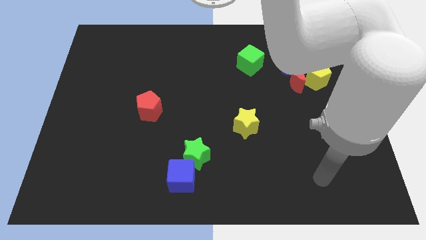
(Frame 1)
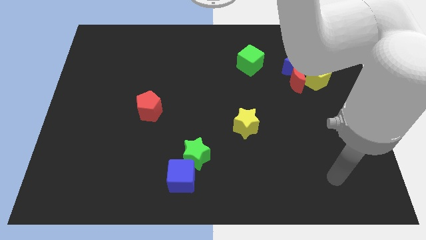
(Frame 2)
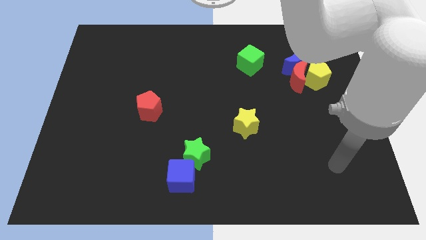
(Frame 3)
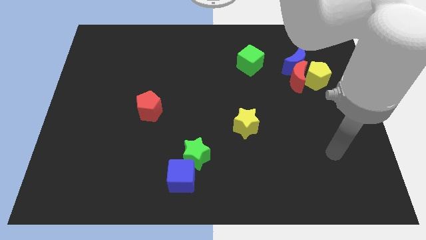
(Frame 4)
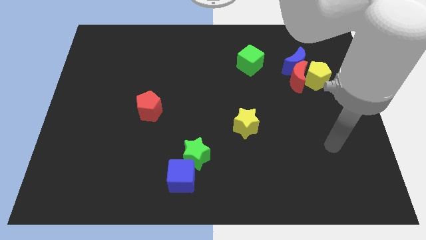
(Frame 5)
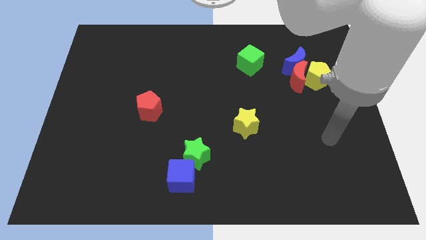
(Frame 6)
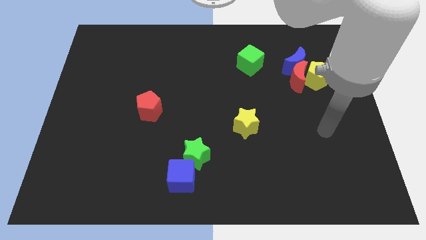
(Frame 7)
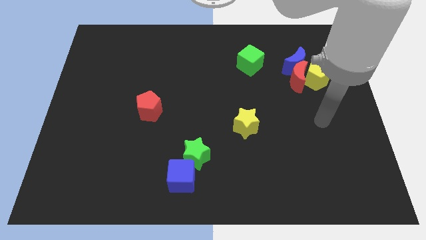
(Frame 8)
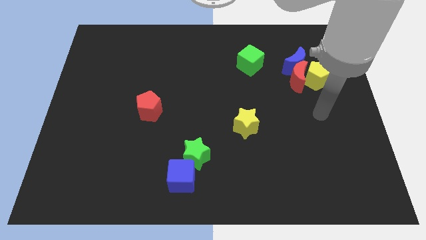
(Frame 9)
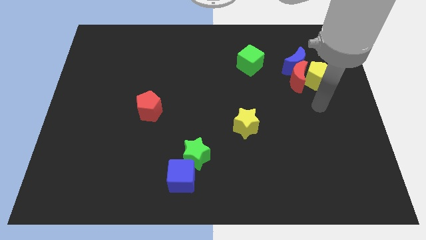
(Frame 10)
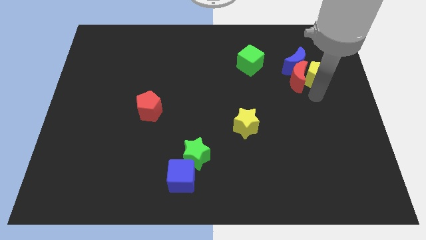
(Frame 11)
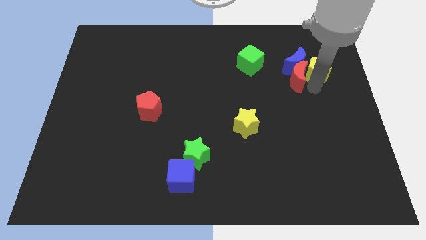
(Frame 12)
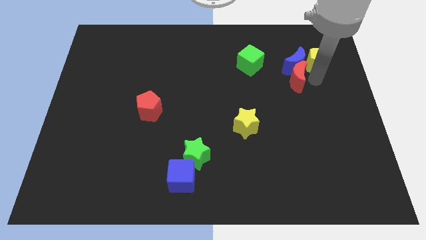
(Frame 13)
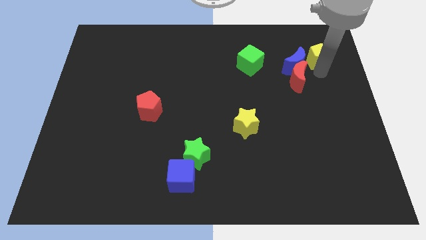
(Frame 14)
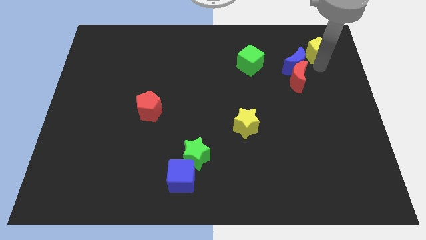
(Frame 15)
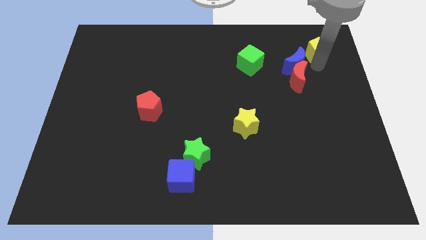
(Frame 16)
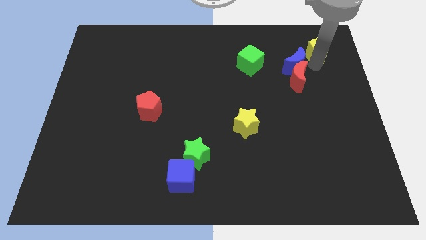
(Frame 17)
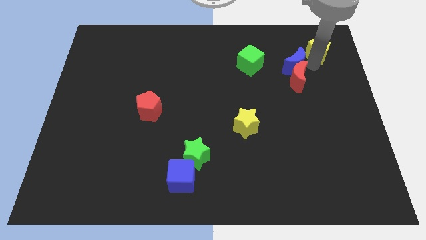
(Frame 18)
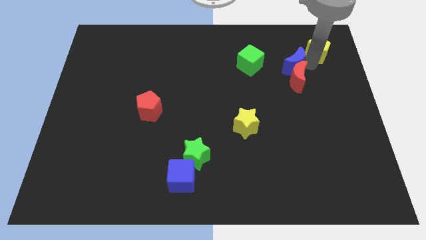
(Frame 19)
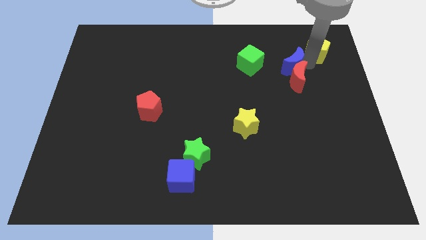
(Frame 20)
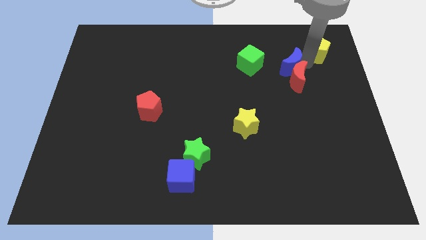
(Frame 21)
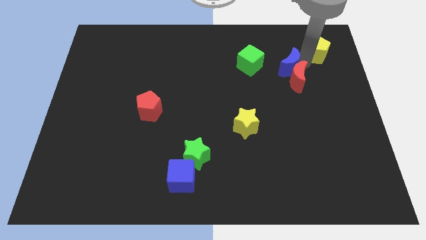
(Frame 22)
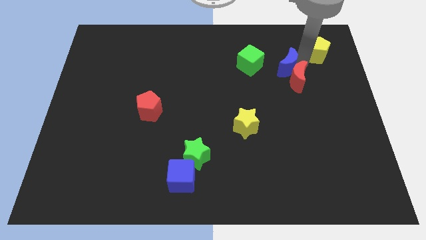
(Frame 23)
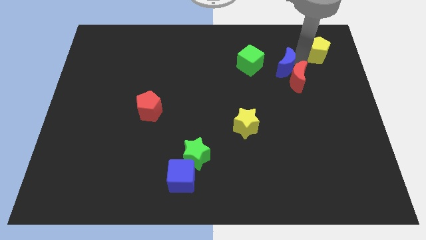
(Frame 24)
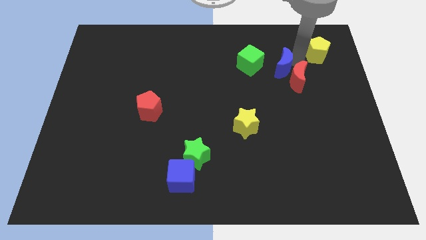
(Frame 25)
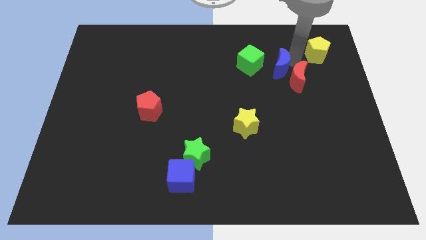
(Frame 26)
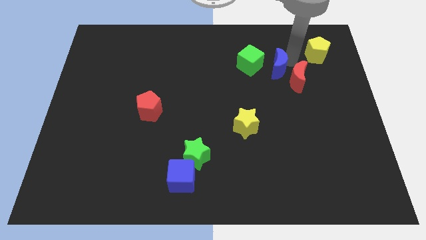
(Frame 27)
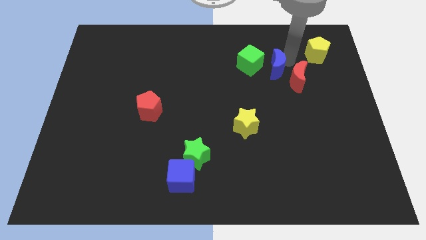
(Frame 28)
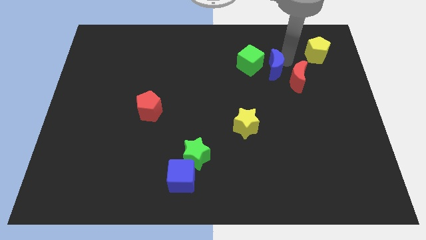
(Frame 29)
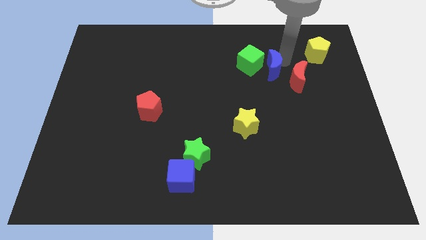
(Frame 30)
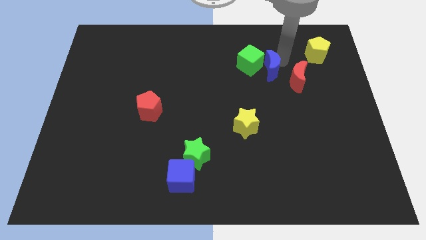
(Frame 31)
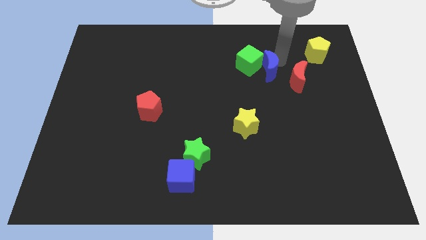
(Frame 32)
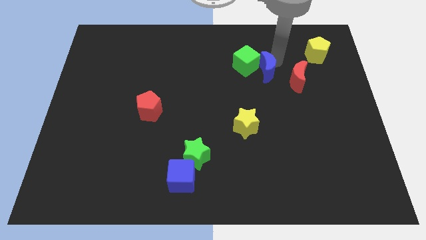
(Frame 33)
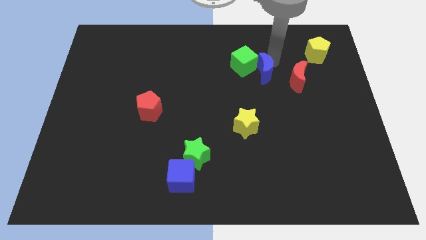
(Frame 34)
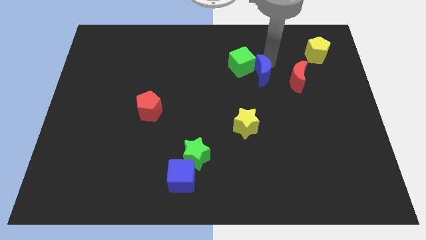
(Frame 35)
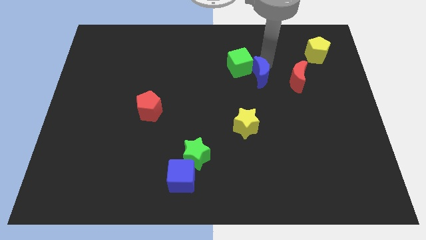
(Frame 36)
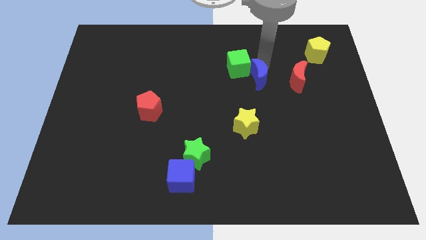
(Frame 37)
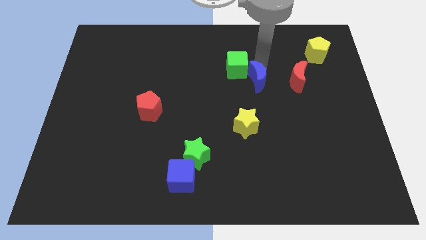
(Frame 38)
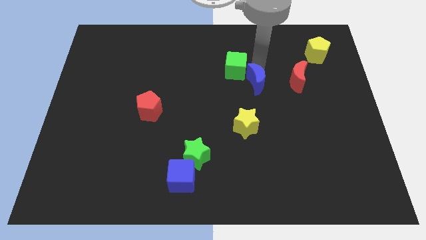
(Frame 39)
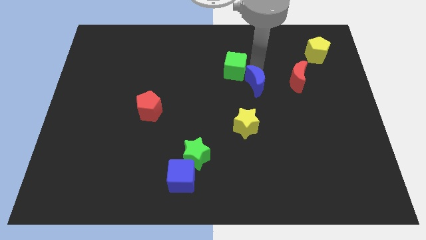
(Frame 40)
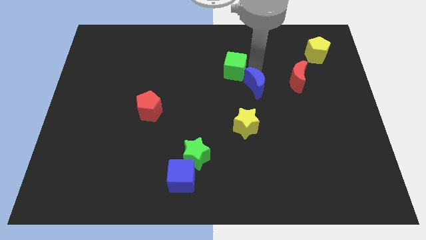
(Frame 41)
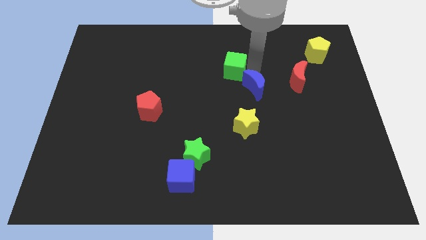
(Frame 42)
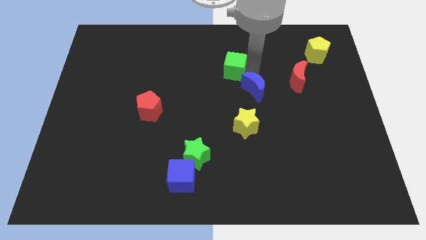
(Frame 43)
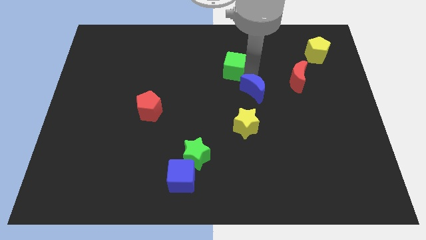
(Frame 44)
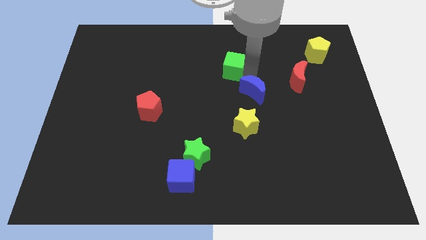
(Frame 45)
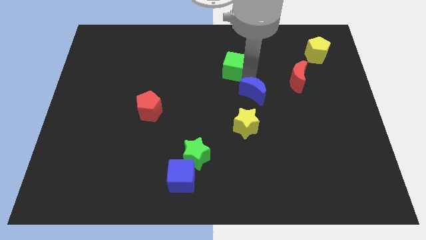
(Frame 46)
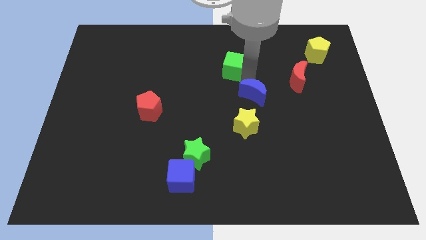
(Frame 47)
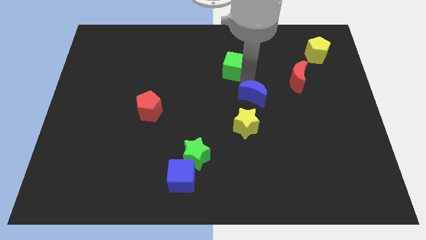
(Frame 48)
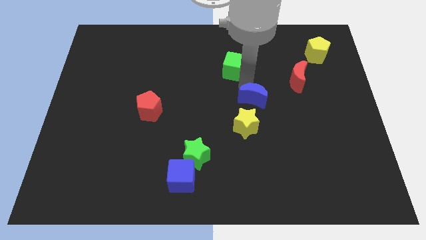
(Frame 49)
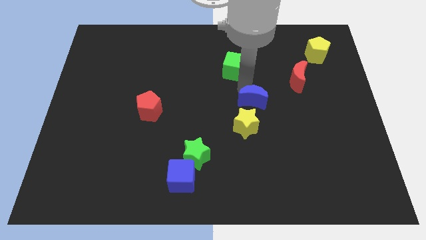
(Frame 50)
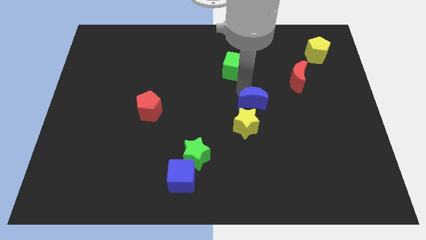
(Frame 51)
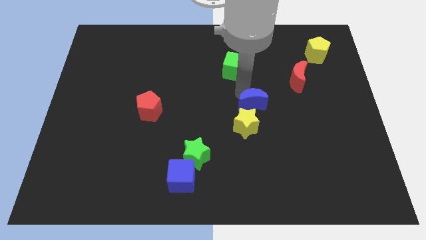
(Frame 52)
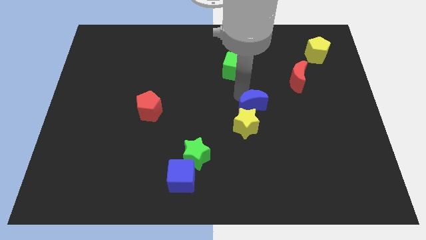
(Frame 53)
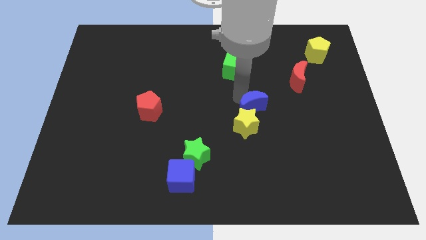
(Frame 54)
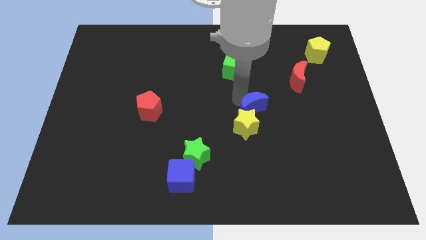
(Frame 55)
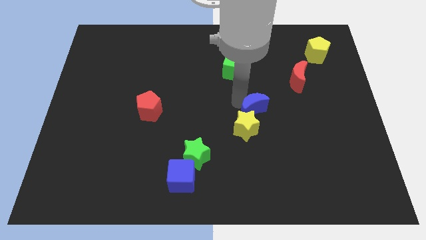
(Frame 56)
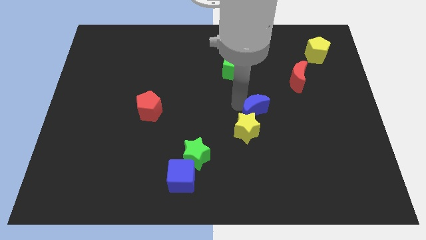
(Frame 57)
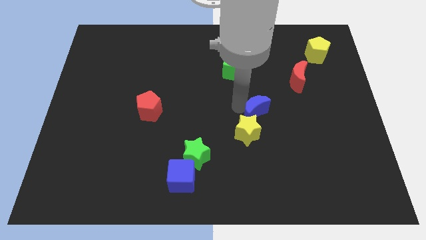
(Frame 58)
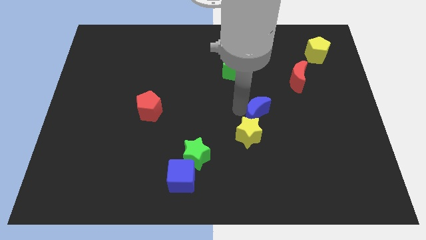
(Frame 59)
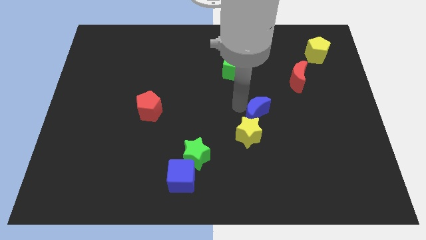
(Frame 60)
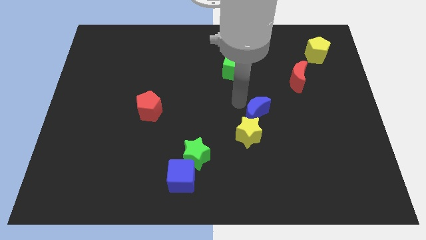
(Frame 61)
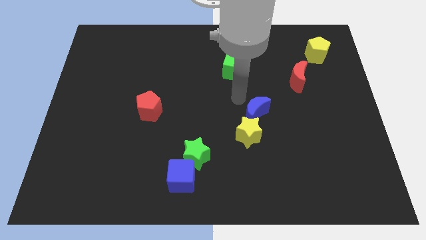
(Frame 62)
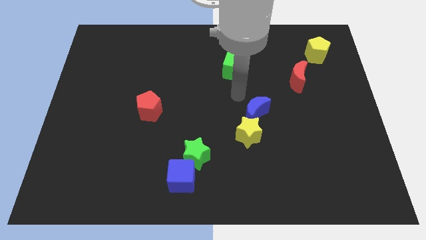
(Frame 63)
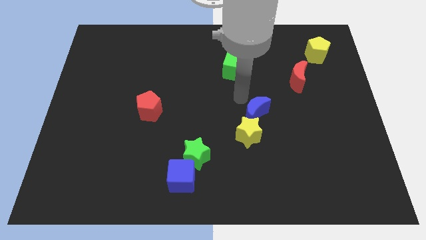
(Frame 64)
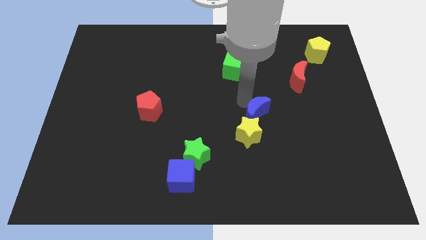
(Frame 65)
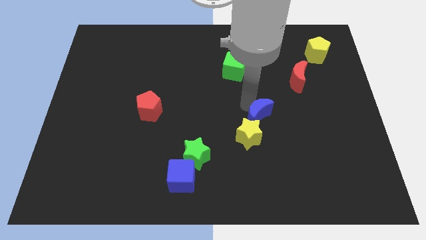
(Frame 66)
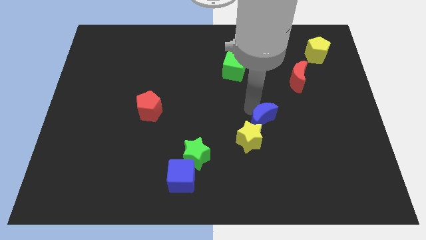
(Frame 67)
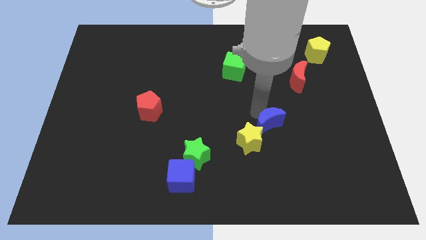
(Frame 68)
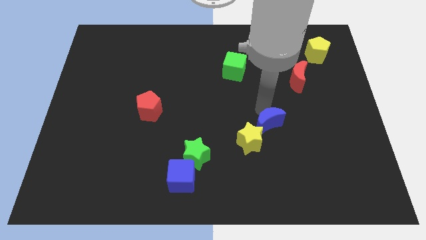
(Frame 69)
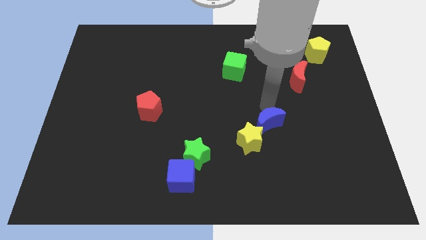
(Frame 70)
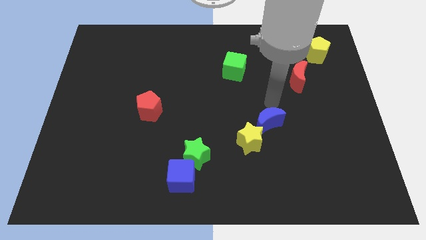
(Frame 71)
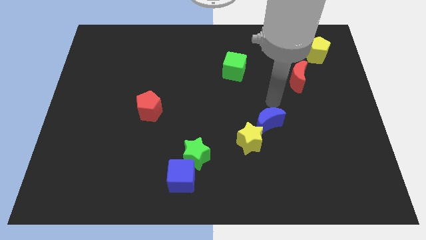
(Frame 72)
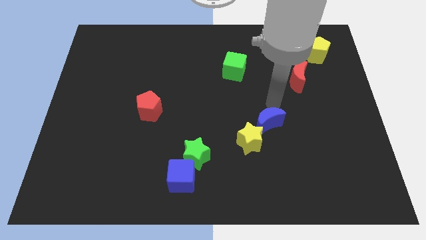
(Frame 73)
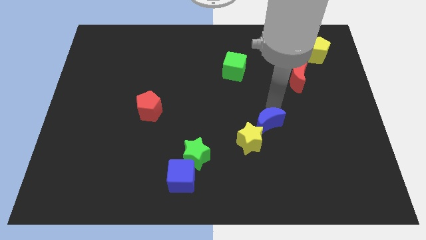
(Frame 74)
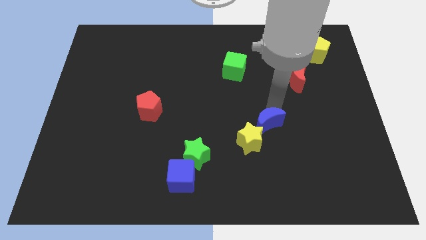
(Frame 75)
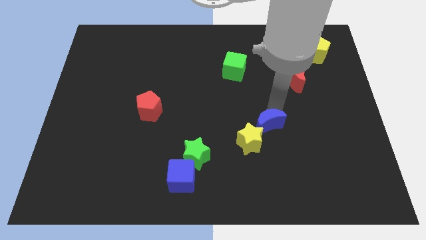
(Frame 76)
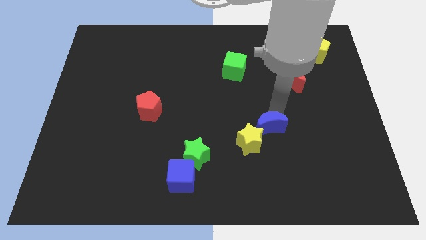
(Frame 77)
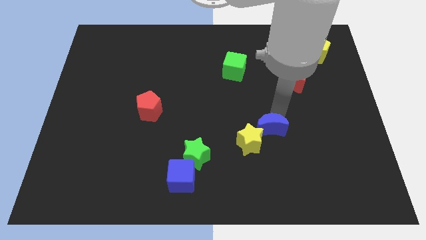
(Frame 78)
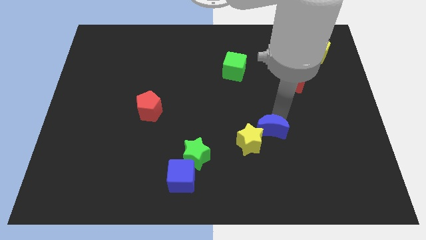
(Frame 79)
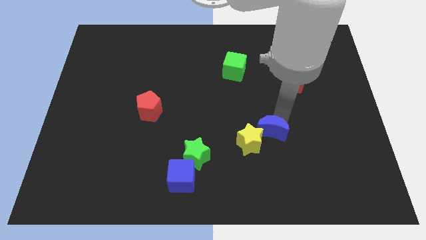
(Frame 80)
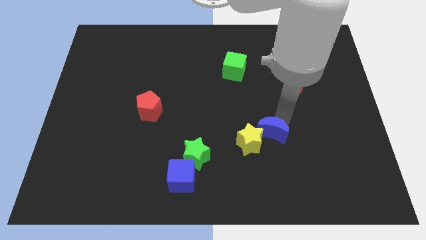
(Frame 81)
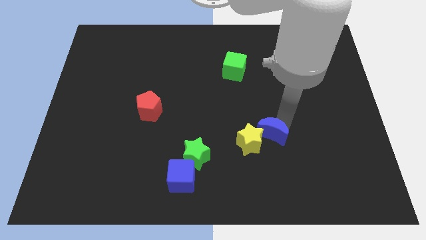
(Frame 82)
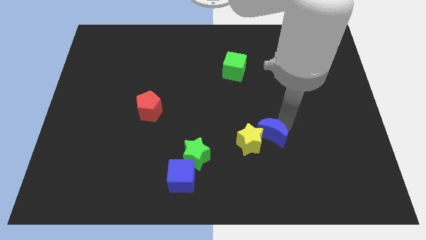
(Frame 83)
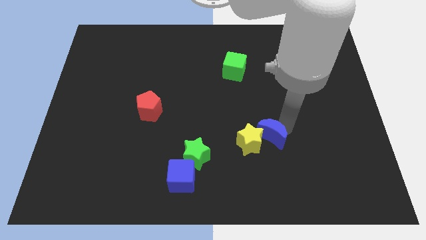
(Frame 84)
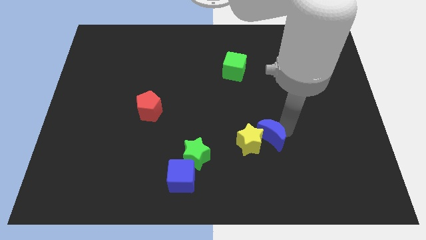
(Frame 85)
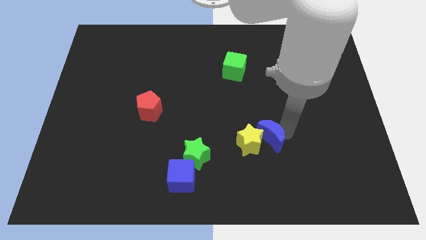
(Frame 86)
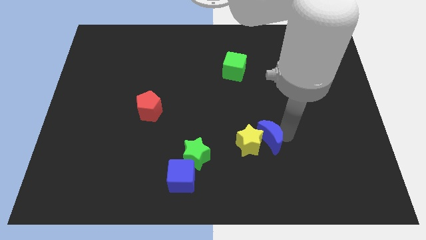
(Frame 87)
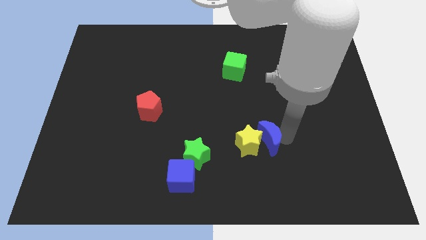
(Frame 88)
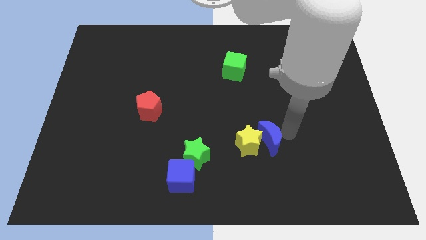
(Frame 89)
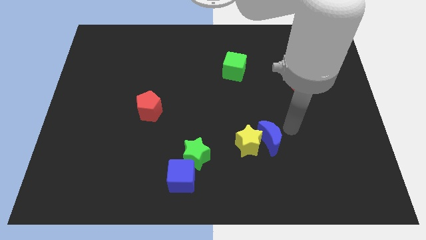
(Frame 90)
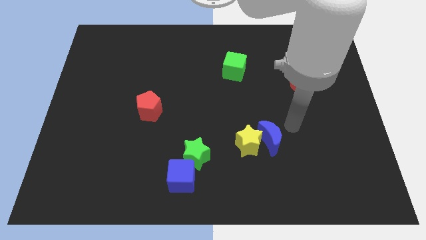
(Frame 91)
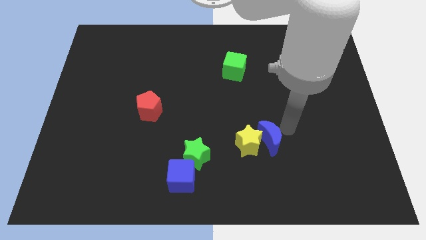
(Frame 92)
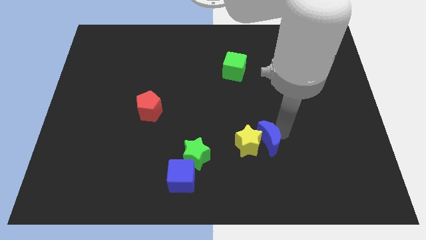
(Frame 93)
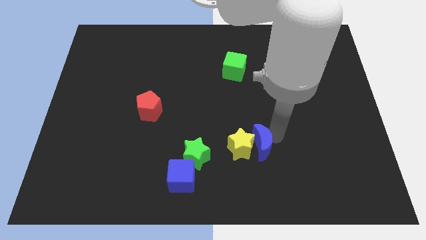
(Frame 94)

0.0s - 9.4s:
put the blue moon to the right side of the green star
